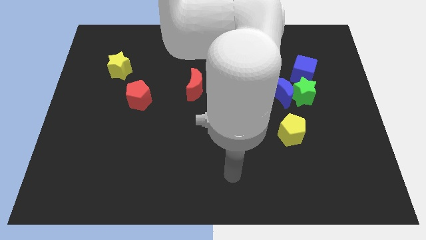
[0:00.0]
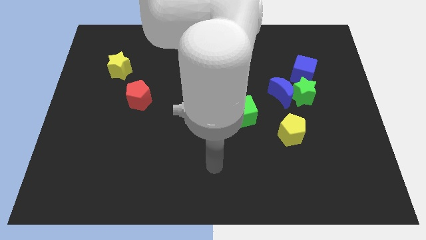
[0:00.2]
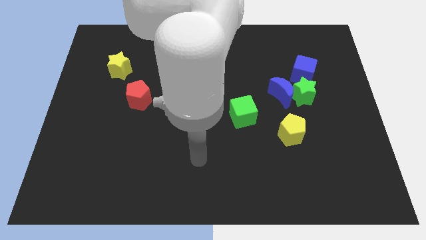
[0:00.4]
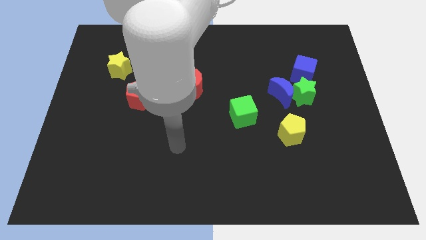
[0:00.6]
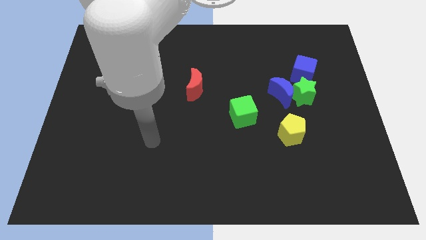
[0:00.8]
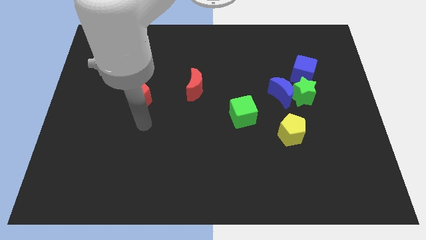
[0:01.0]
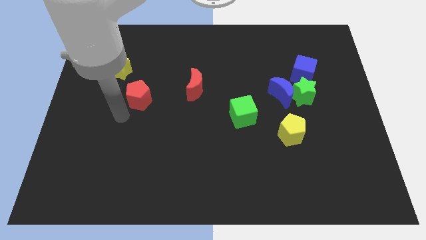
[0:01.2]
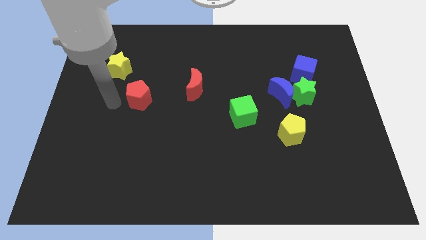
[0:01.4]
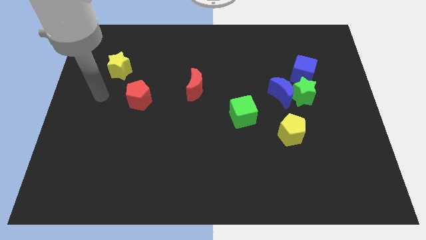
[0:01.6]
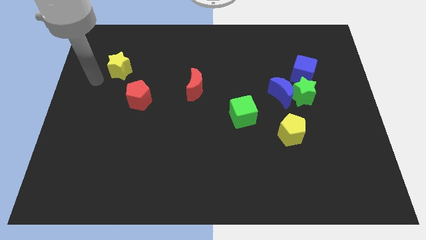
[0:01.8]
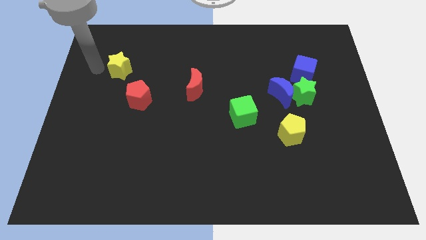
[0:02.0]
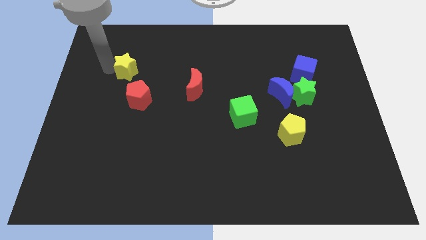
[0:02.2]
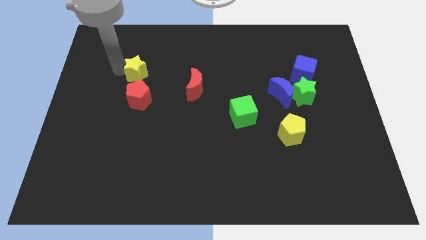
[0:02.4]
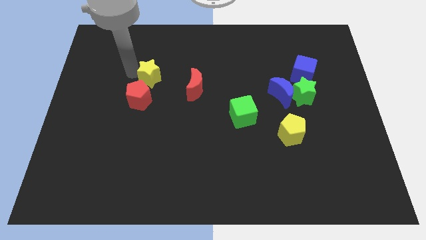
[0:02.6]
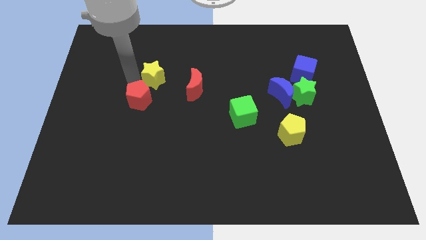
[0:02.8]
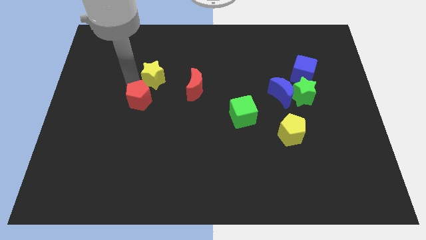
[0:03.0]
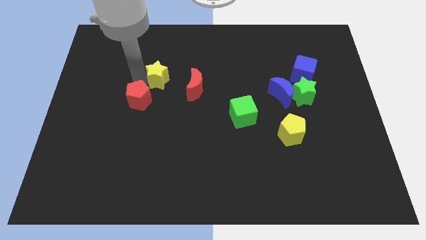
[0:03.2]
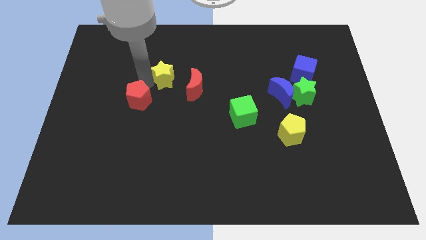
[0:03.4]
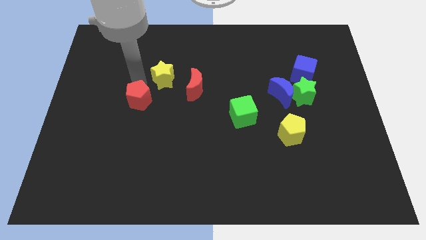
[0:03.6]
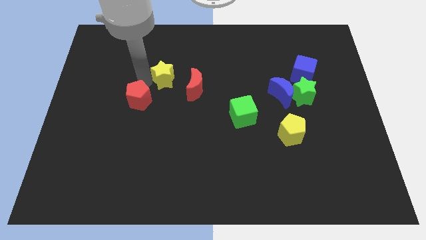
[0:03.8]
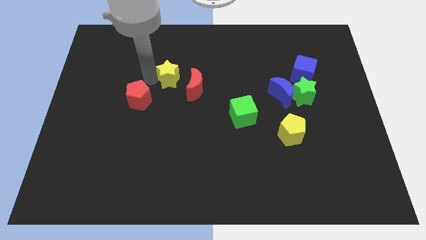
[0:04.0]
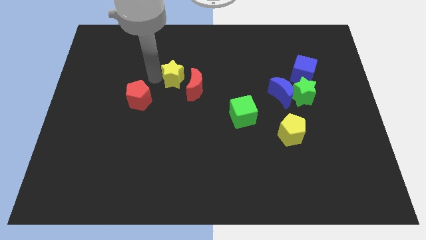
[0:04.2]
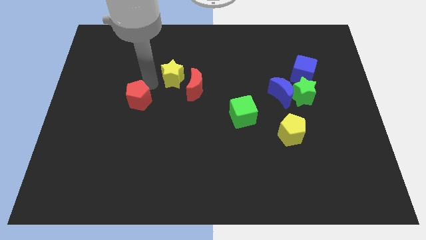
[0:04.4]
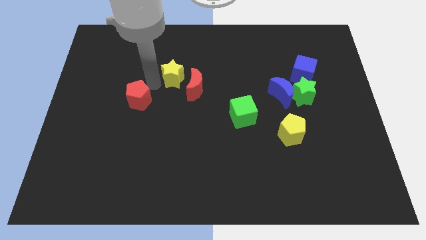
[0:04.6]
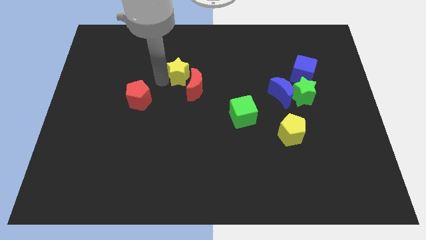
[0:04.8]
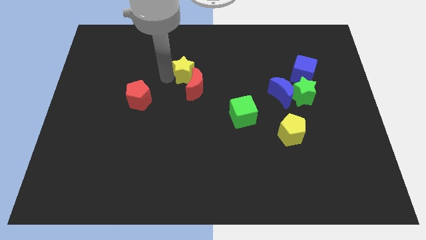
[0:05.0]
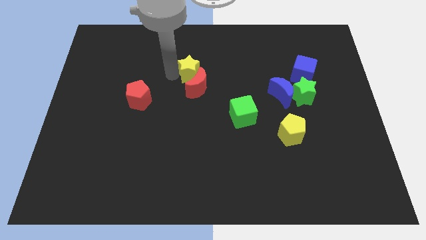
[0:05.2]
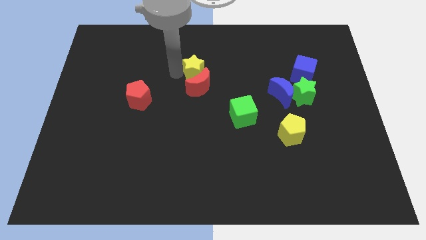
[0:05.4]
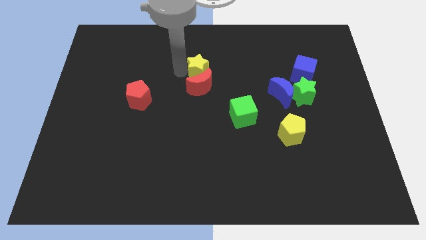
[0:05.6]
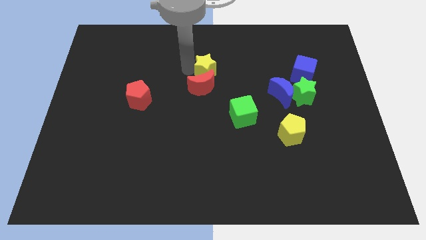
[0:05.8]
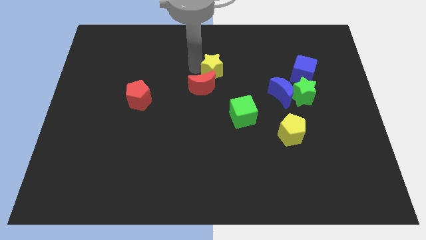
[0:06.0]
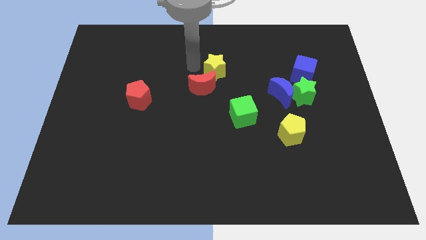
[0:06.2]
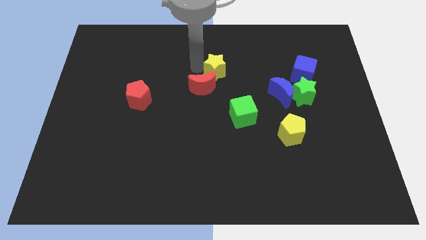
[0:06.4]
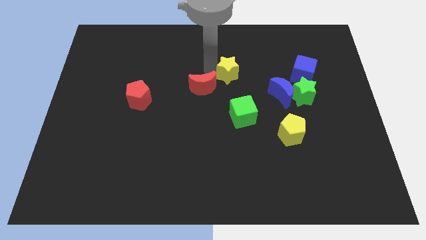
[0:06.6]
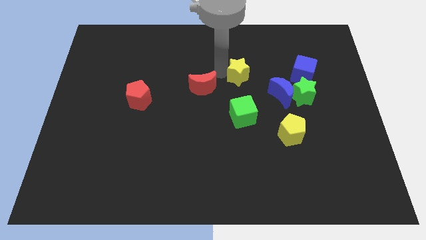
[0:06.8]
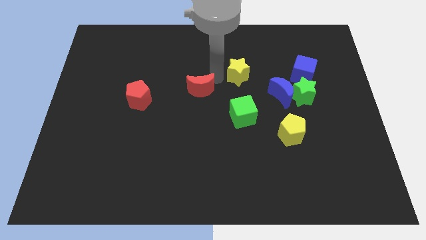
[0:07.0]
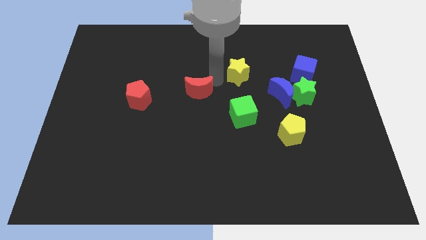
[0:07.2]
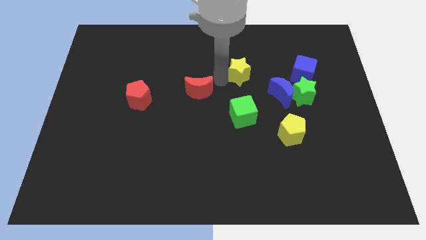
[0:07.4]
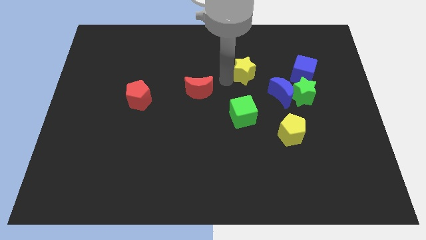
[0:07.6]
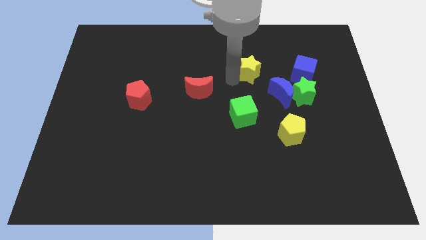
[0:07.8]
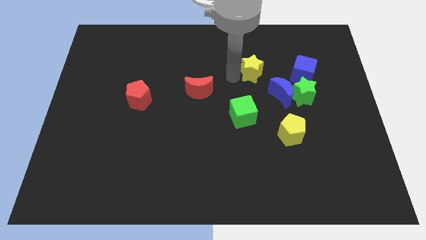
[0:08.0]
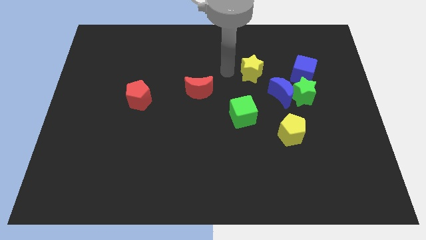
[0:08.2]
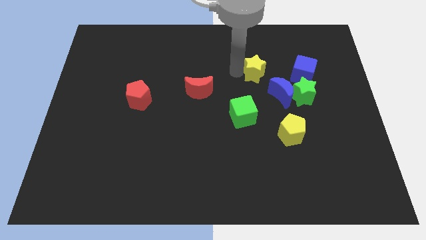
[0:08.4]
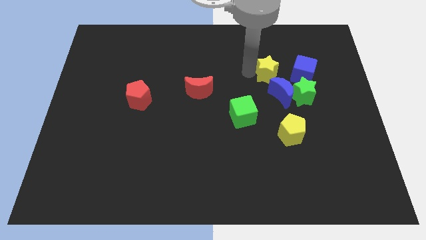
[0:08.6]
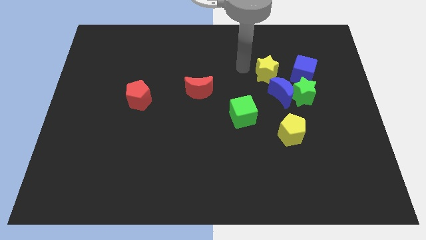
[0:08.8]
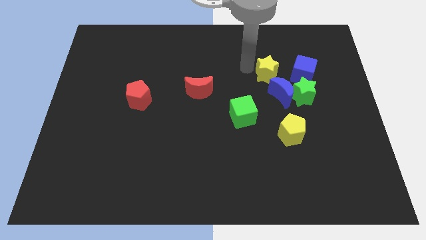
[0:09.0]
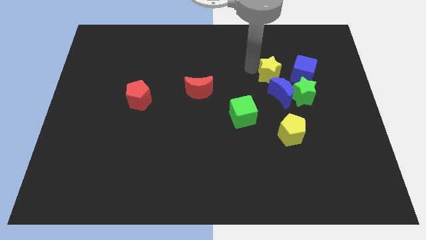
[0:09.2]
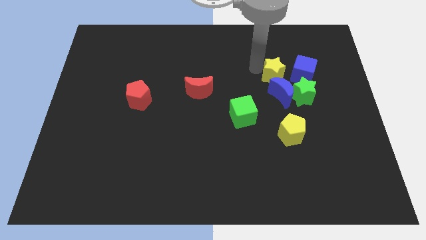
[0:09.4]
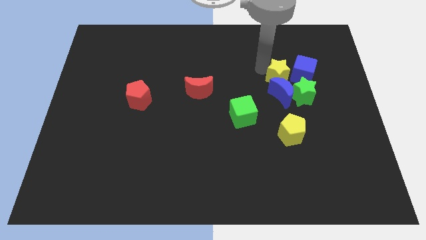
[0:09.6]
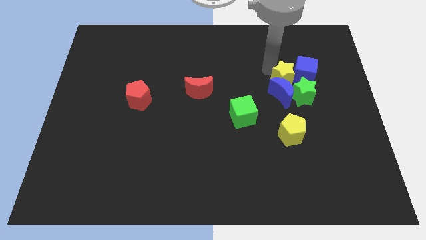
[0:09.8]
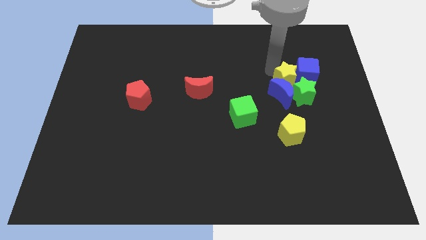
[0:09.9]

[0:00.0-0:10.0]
slide the yellow star towards the green star

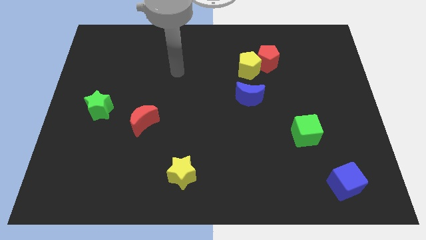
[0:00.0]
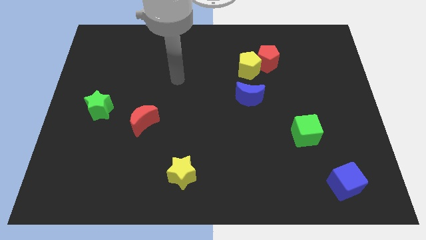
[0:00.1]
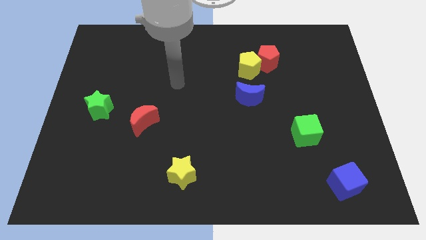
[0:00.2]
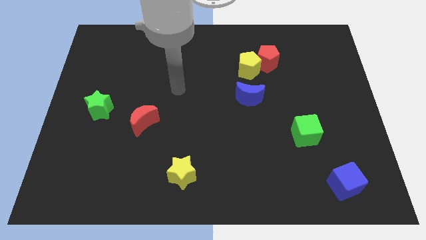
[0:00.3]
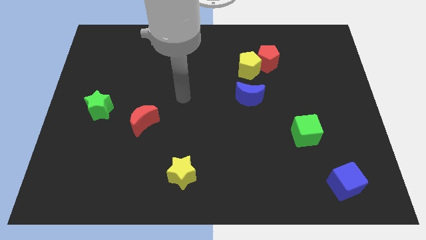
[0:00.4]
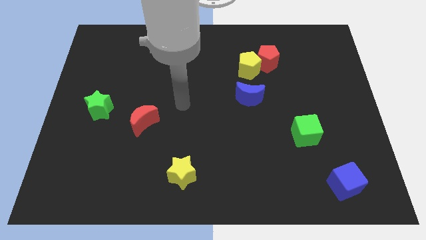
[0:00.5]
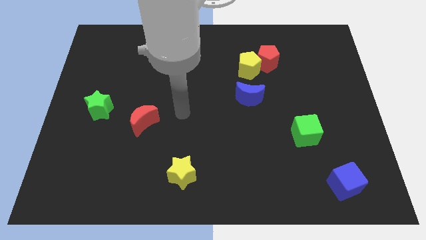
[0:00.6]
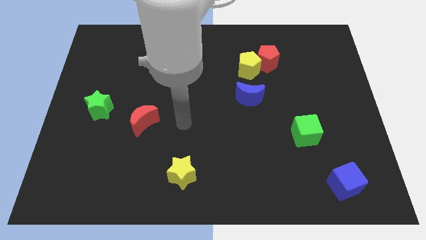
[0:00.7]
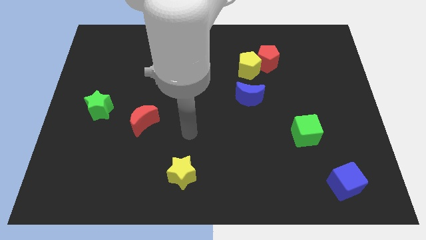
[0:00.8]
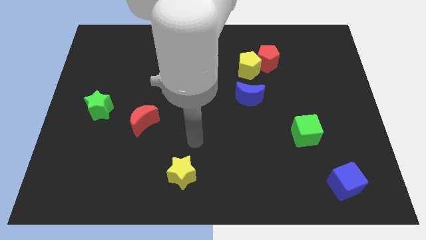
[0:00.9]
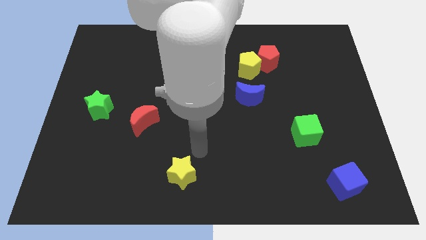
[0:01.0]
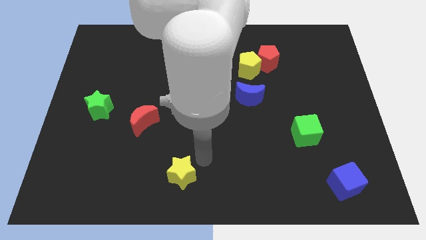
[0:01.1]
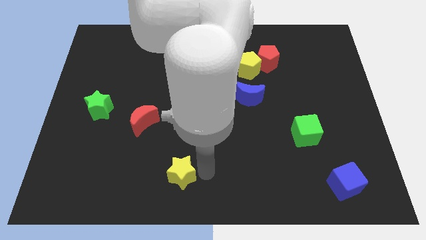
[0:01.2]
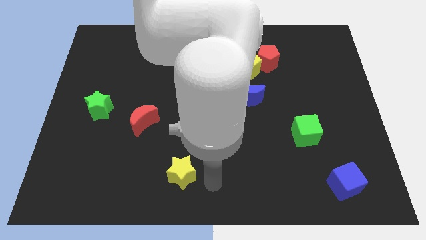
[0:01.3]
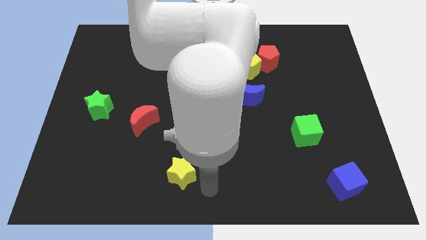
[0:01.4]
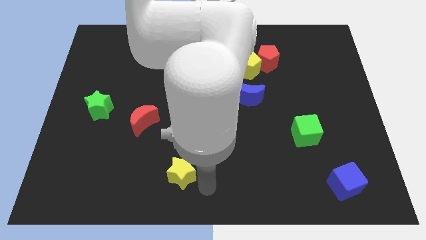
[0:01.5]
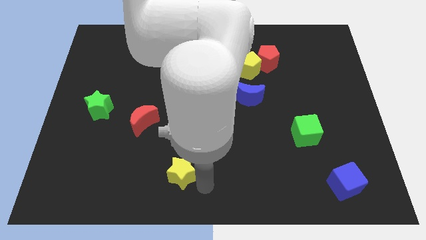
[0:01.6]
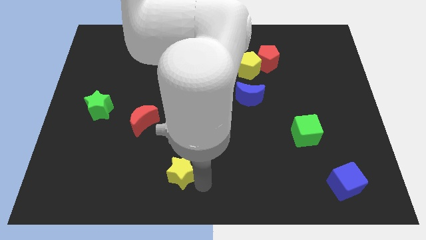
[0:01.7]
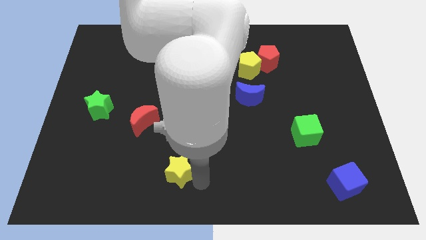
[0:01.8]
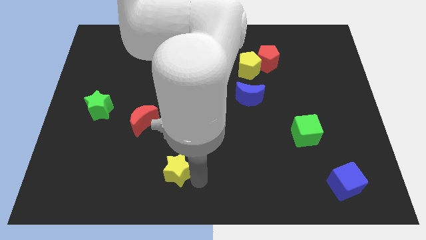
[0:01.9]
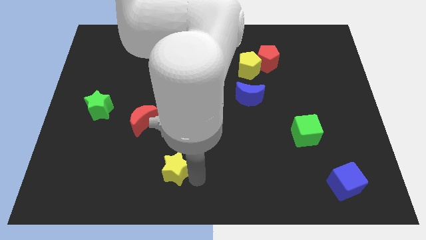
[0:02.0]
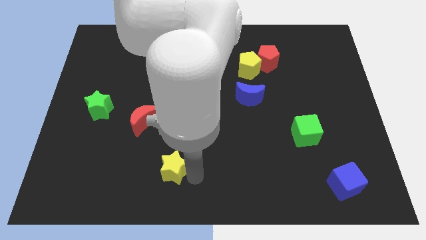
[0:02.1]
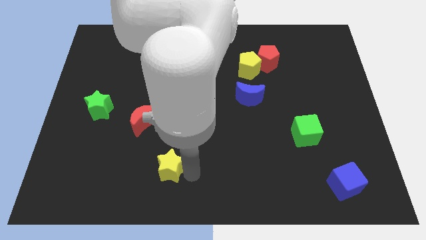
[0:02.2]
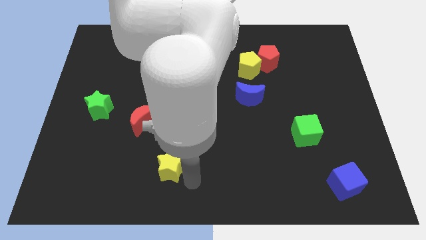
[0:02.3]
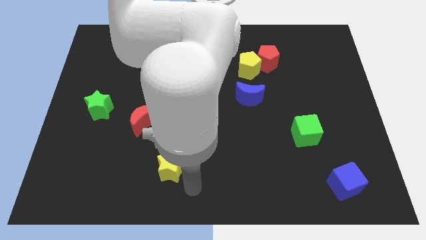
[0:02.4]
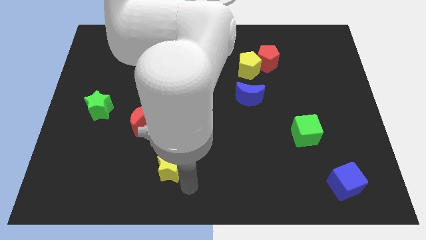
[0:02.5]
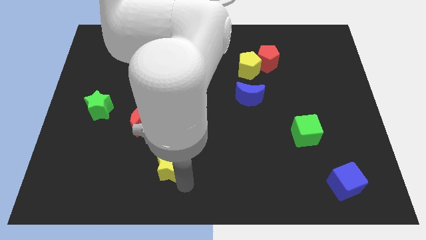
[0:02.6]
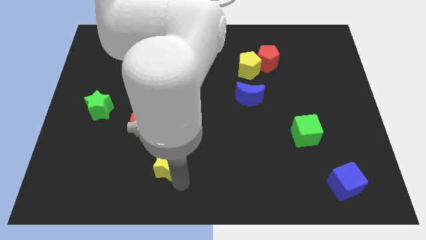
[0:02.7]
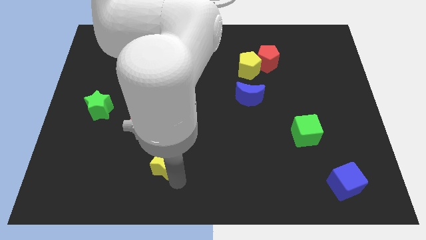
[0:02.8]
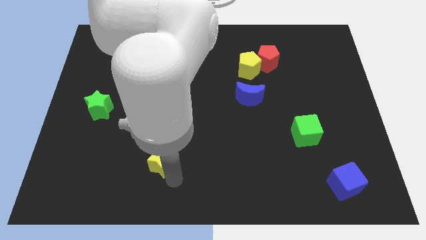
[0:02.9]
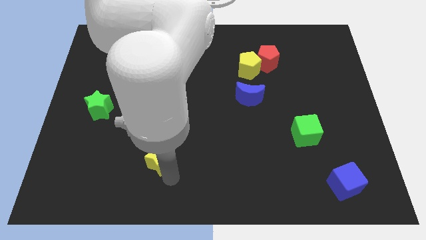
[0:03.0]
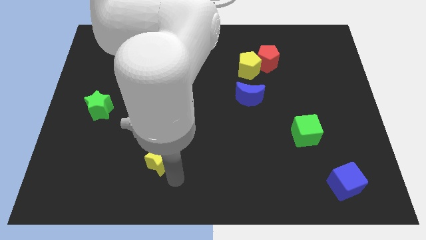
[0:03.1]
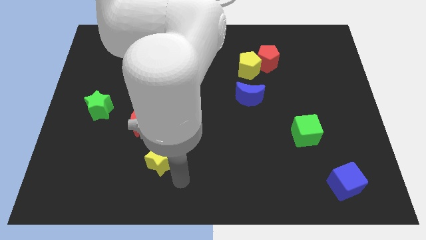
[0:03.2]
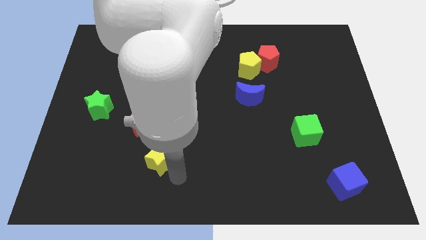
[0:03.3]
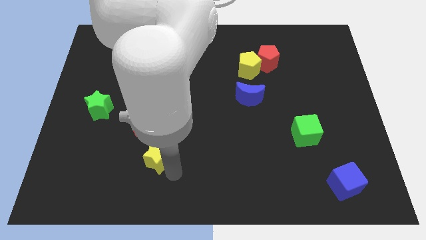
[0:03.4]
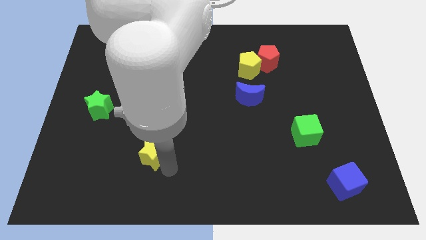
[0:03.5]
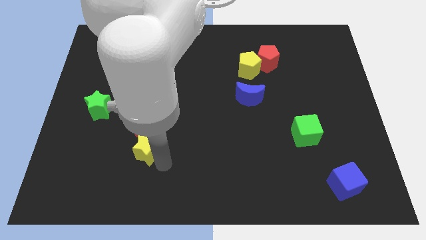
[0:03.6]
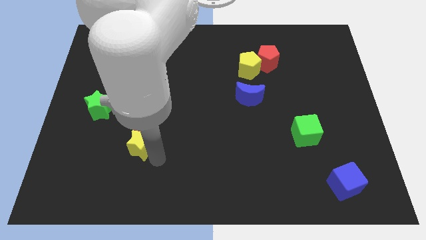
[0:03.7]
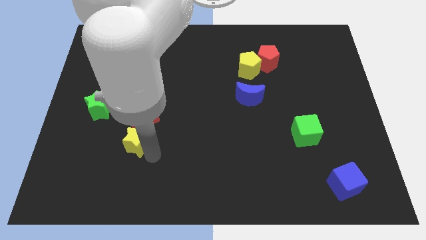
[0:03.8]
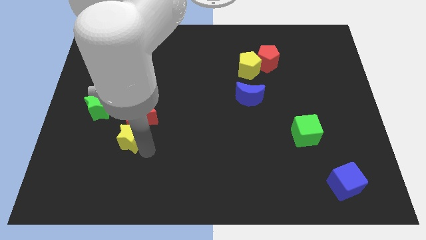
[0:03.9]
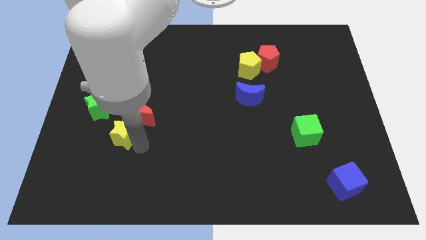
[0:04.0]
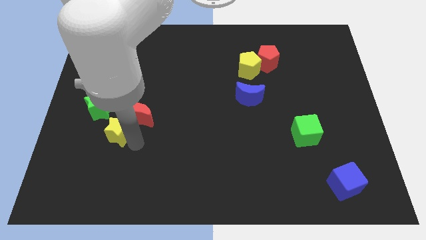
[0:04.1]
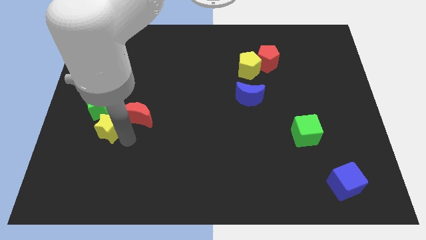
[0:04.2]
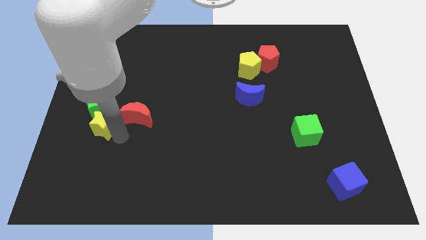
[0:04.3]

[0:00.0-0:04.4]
push the yellow star next to the green star
